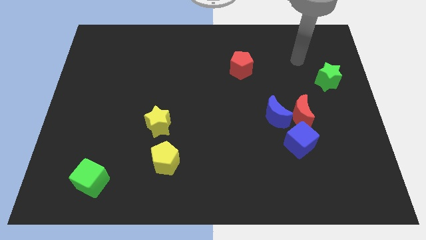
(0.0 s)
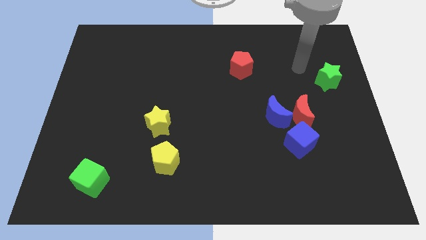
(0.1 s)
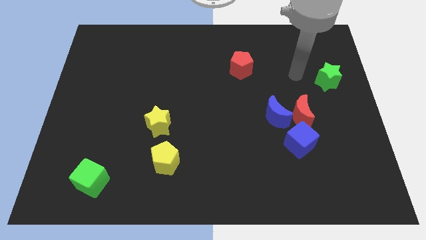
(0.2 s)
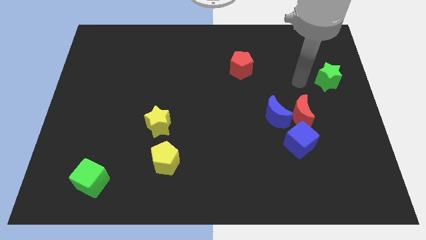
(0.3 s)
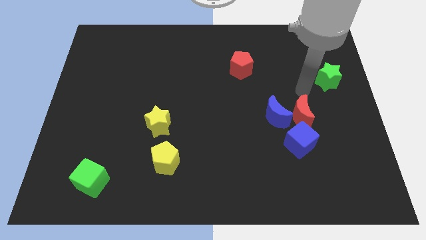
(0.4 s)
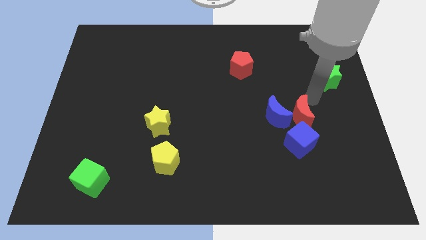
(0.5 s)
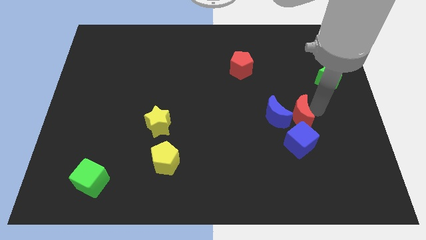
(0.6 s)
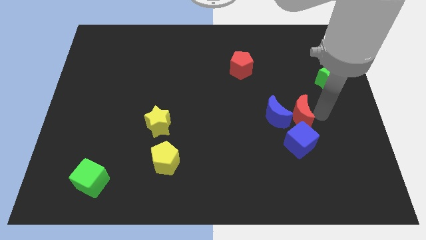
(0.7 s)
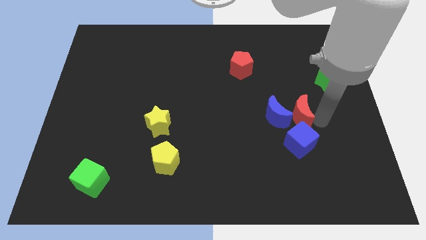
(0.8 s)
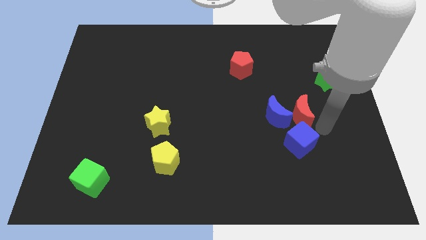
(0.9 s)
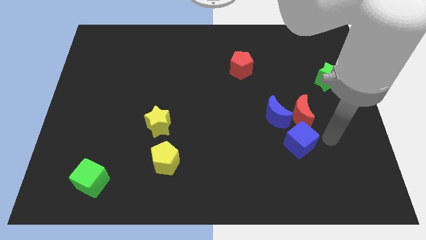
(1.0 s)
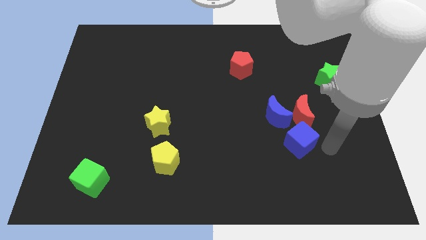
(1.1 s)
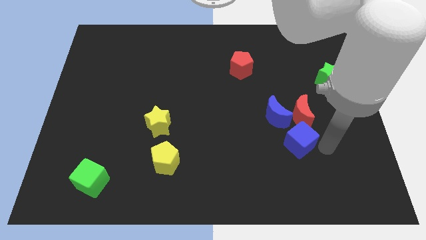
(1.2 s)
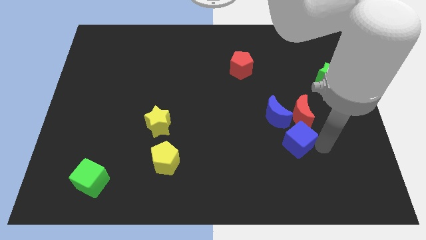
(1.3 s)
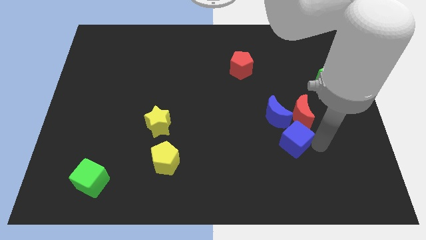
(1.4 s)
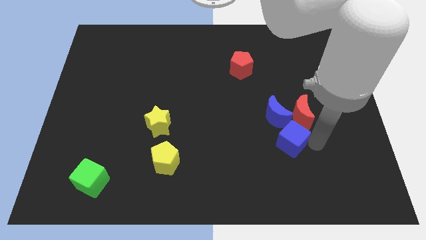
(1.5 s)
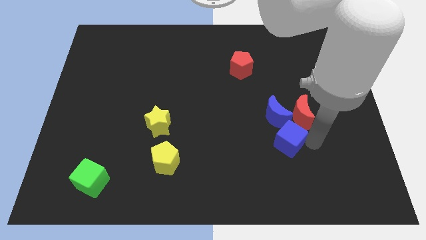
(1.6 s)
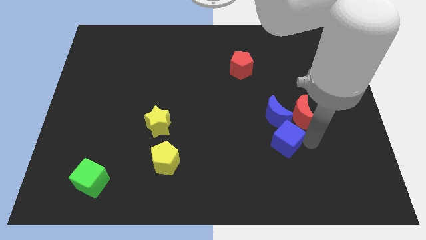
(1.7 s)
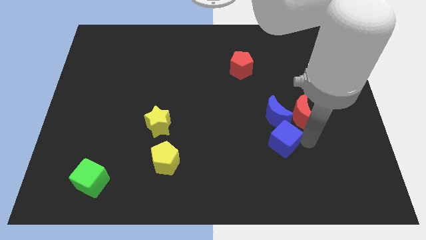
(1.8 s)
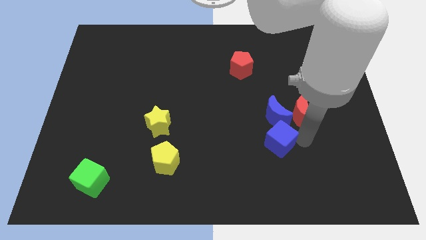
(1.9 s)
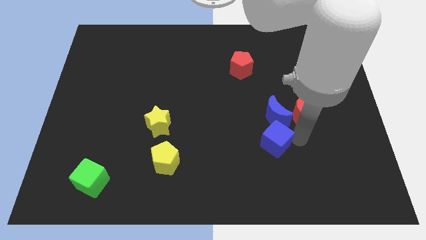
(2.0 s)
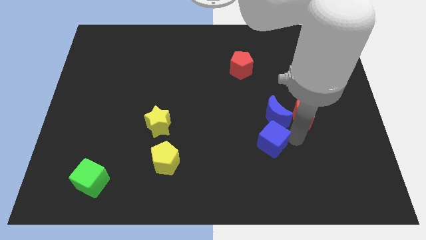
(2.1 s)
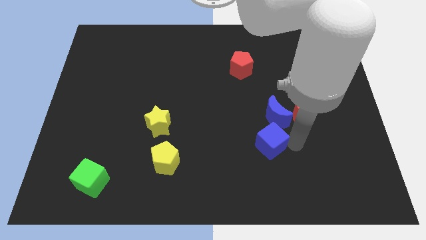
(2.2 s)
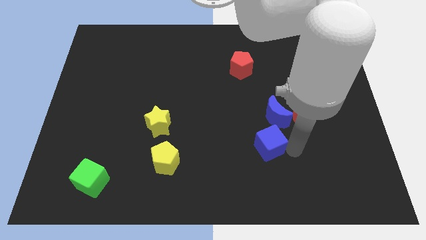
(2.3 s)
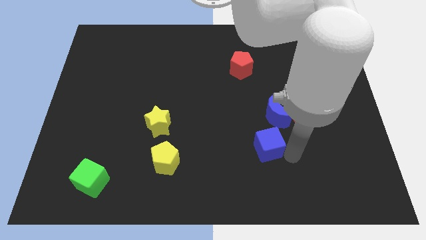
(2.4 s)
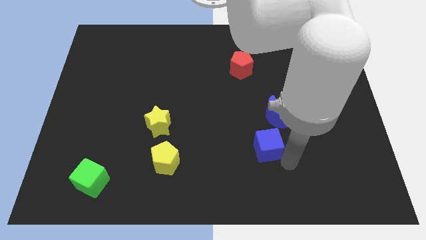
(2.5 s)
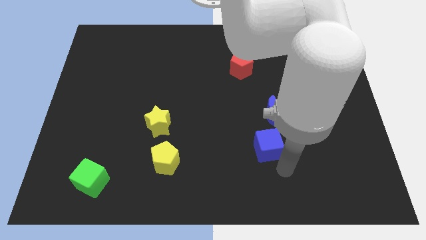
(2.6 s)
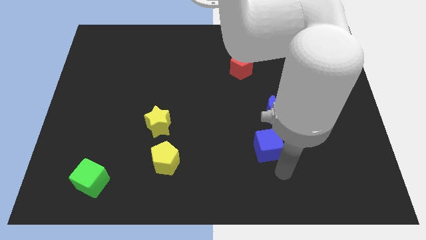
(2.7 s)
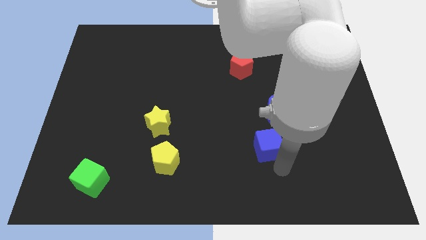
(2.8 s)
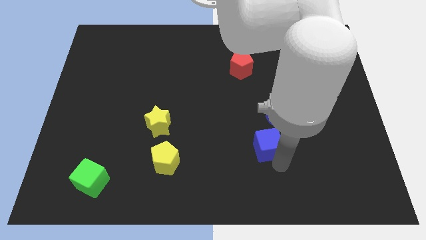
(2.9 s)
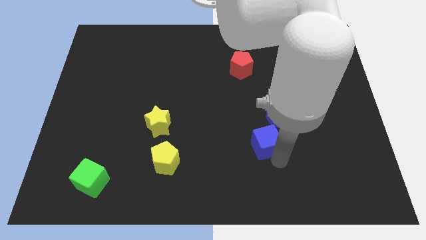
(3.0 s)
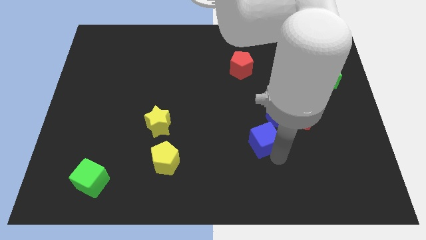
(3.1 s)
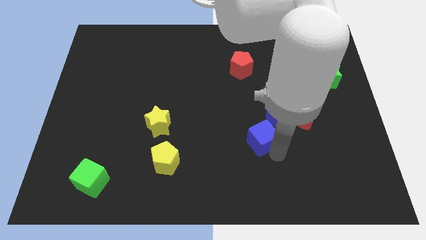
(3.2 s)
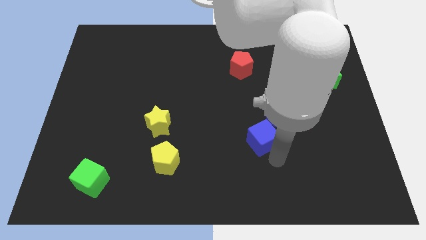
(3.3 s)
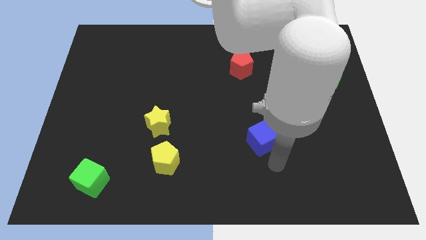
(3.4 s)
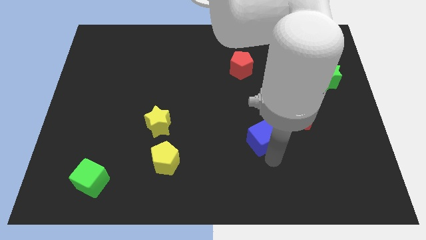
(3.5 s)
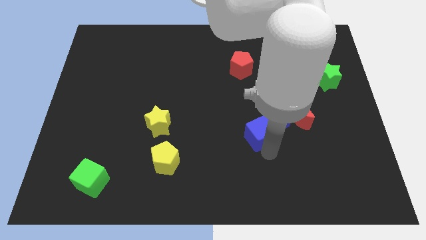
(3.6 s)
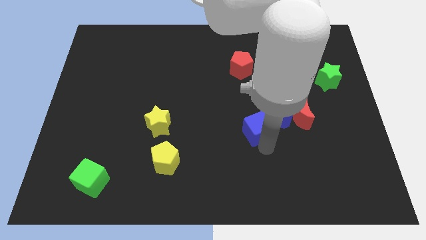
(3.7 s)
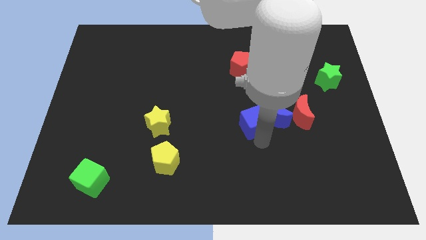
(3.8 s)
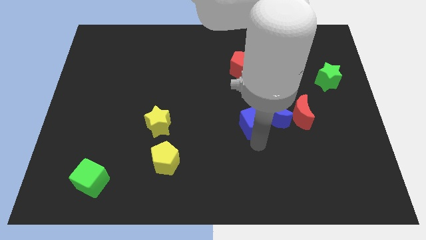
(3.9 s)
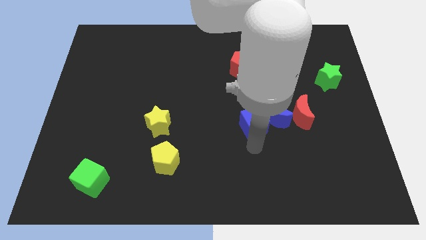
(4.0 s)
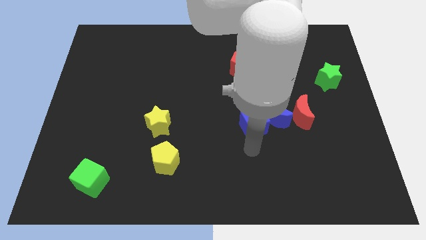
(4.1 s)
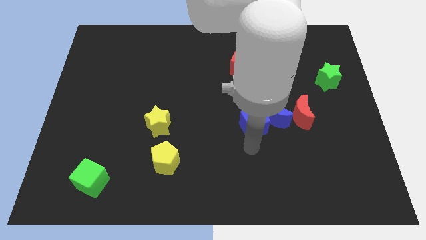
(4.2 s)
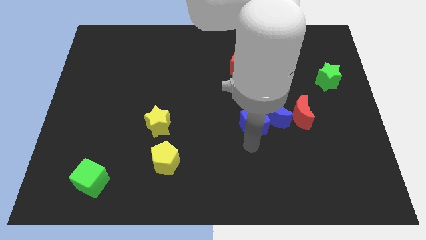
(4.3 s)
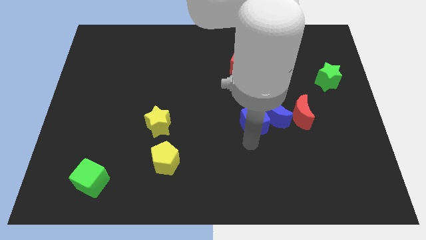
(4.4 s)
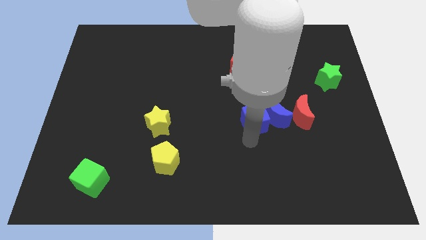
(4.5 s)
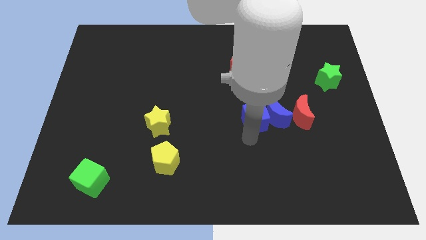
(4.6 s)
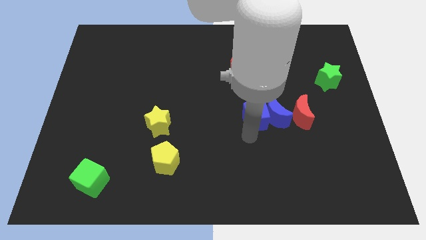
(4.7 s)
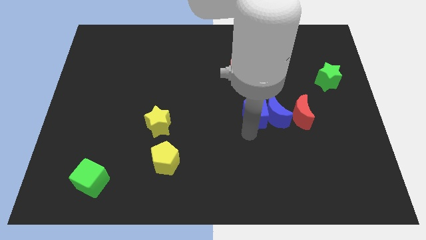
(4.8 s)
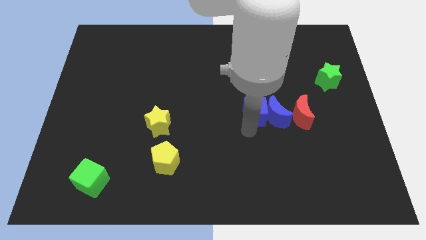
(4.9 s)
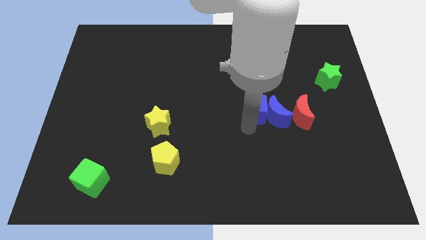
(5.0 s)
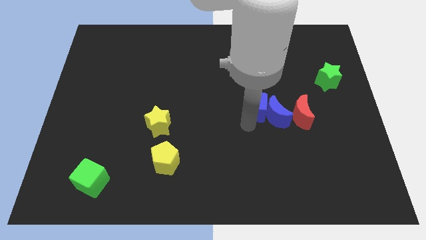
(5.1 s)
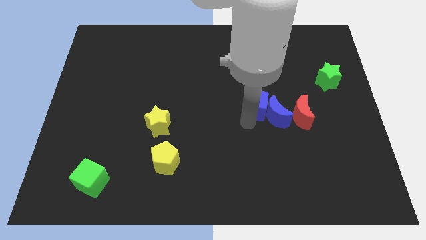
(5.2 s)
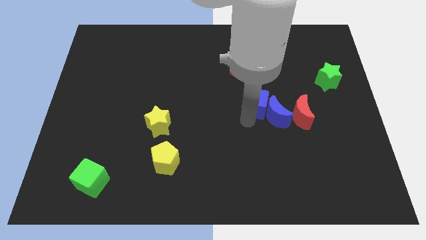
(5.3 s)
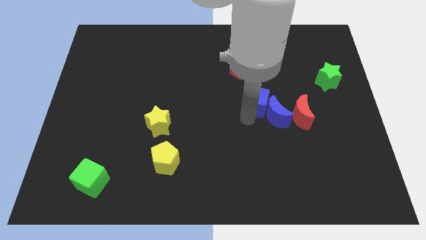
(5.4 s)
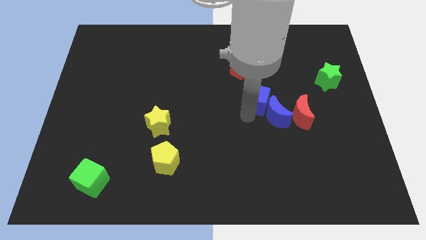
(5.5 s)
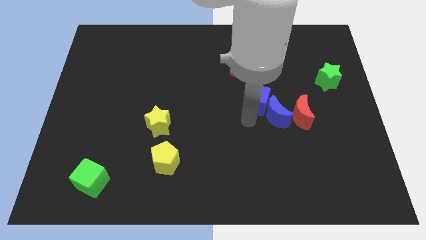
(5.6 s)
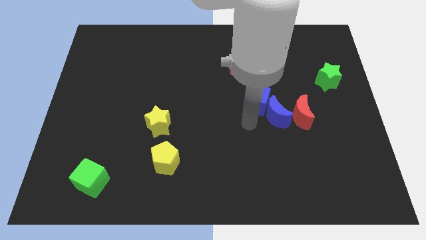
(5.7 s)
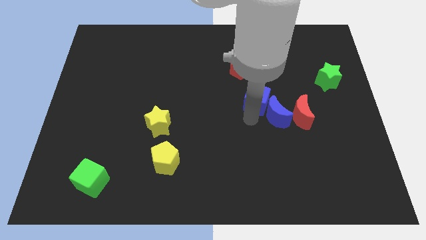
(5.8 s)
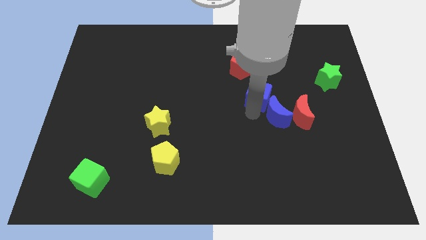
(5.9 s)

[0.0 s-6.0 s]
move the blue cube to the bottom right of the red pentagon
